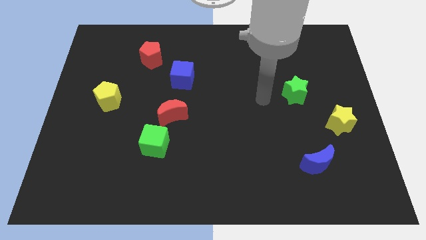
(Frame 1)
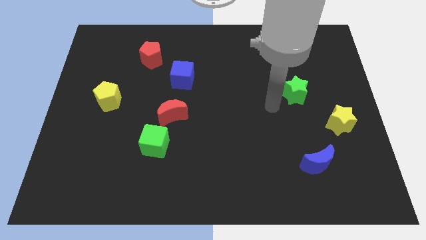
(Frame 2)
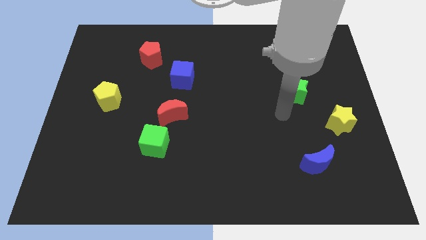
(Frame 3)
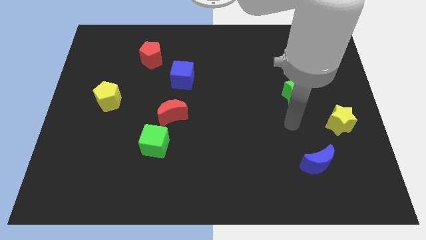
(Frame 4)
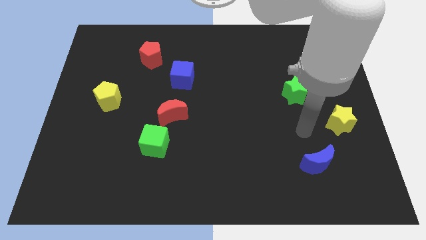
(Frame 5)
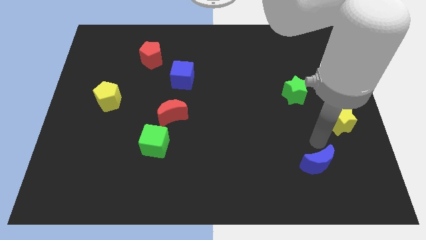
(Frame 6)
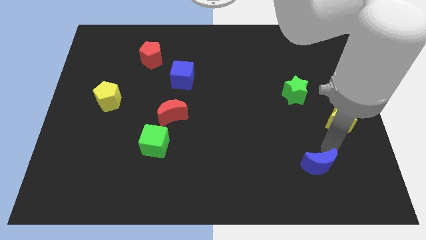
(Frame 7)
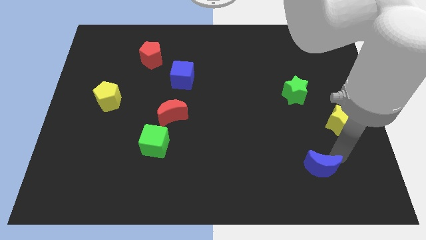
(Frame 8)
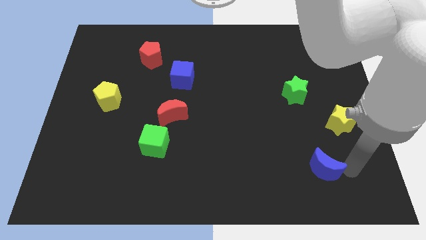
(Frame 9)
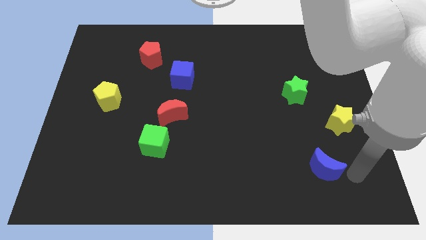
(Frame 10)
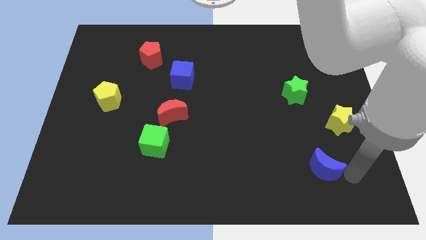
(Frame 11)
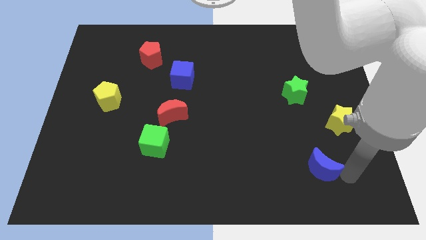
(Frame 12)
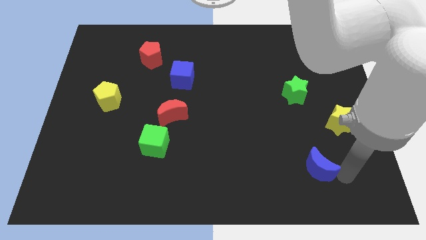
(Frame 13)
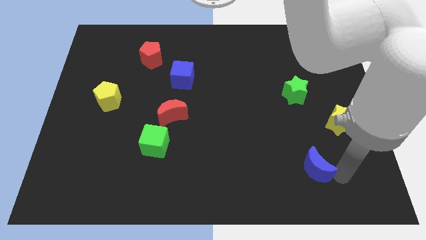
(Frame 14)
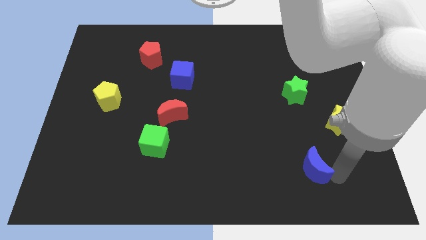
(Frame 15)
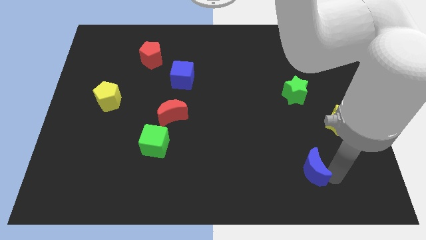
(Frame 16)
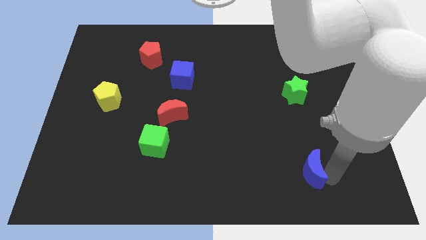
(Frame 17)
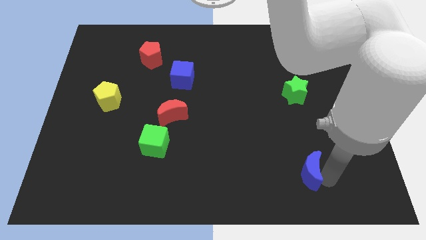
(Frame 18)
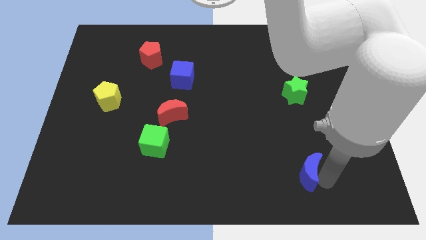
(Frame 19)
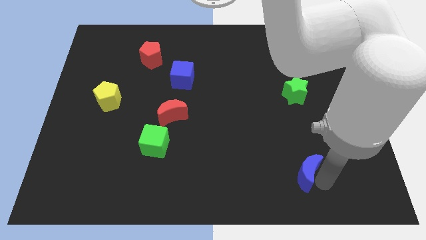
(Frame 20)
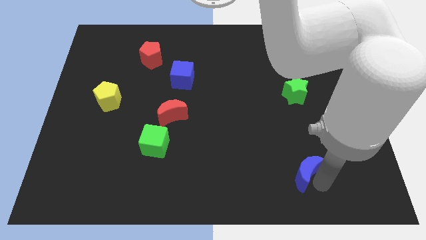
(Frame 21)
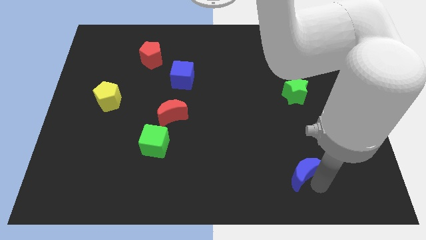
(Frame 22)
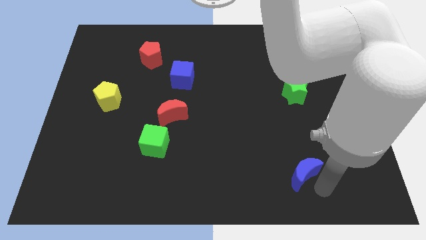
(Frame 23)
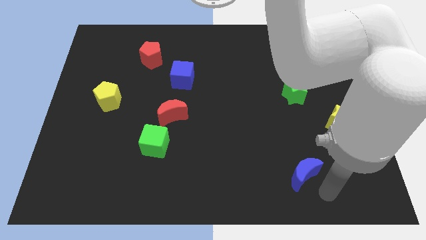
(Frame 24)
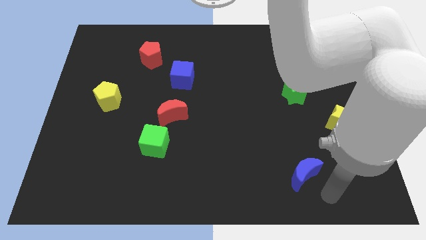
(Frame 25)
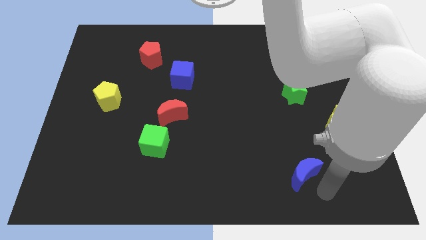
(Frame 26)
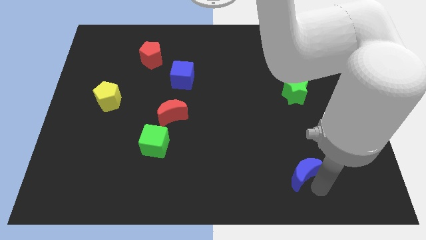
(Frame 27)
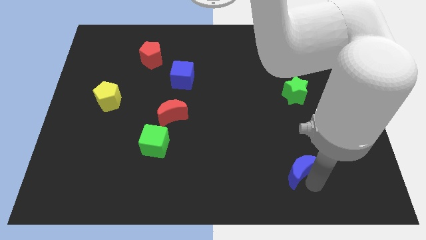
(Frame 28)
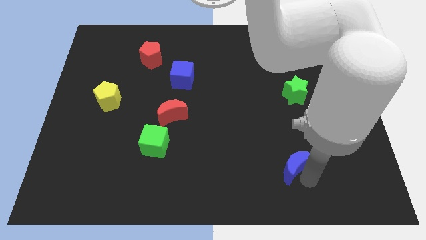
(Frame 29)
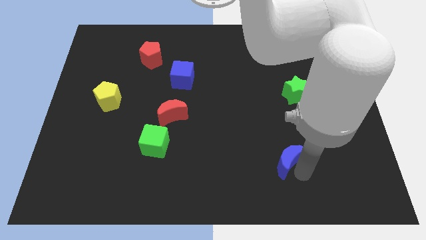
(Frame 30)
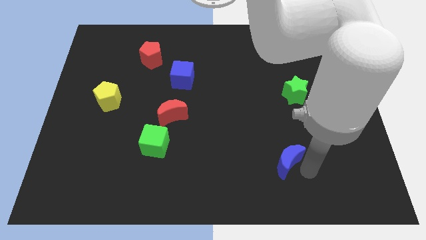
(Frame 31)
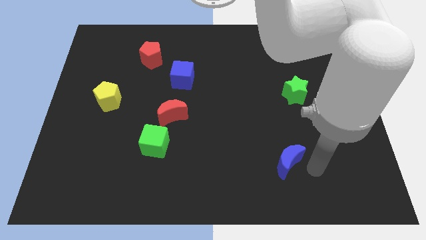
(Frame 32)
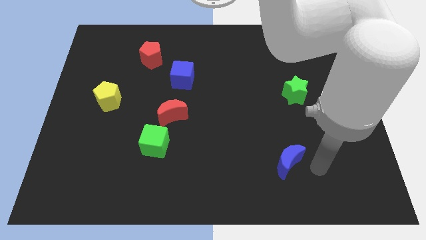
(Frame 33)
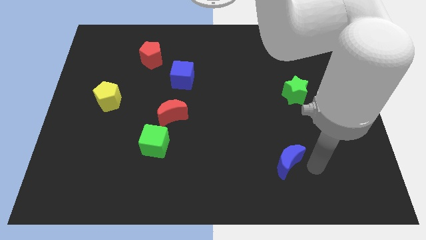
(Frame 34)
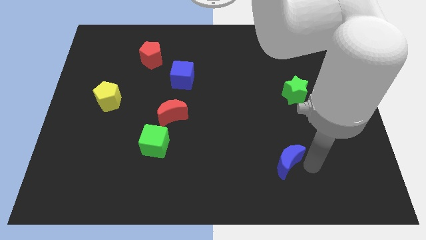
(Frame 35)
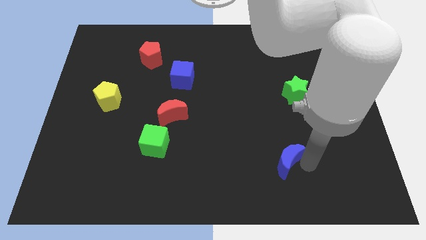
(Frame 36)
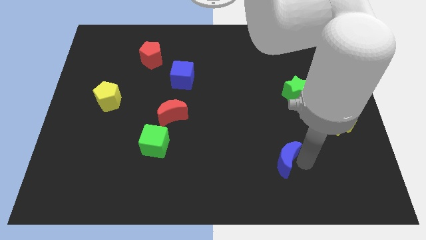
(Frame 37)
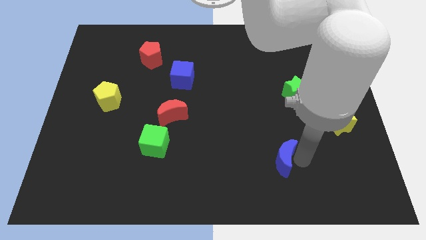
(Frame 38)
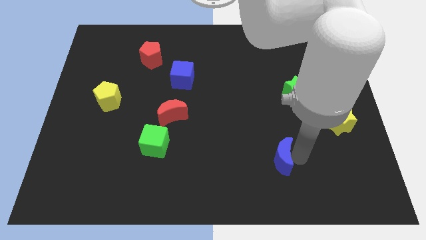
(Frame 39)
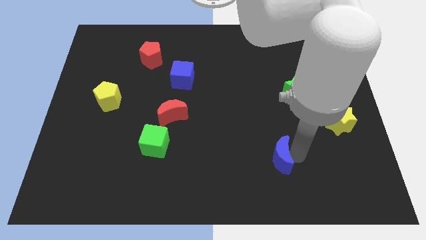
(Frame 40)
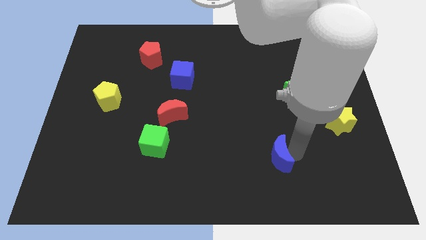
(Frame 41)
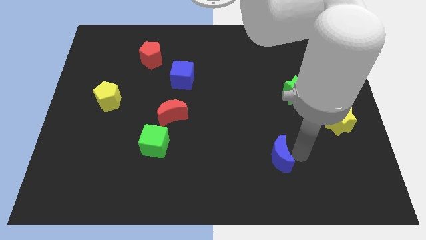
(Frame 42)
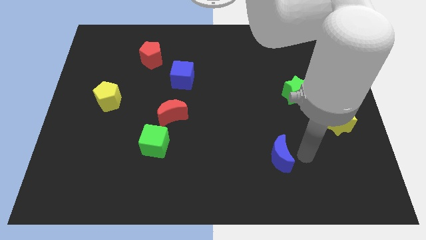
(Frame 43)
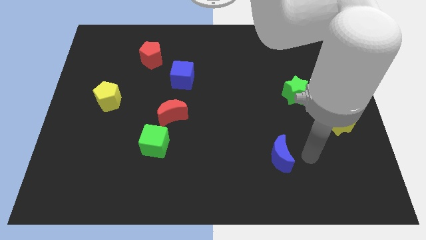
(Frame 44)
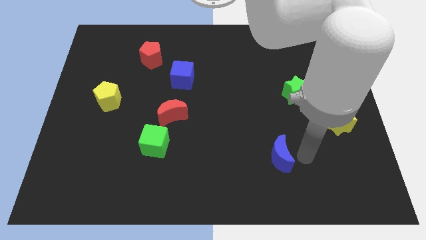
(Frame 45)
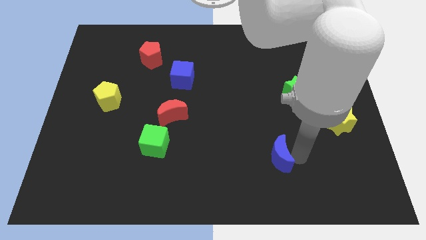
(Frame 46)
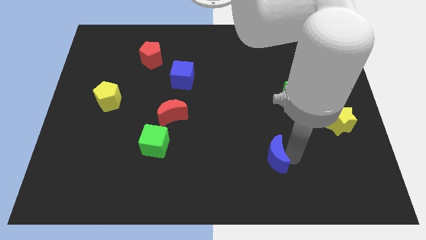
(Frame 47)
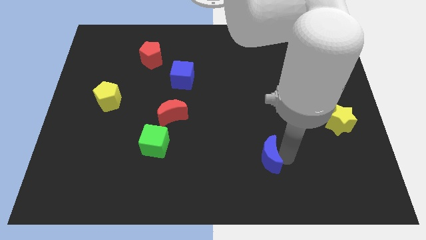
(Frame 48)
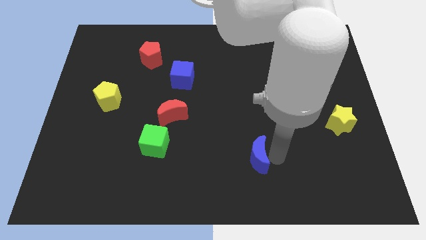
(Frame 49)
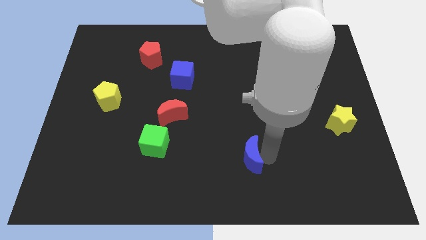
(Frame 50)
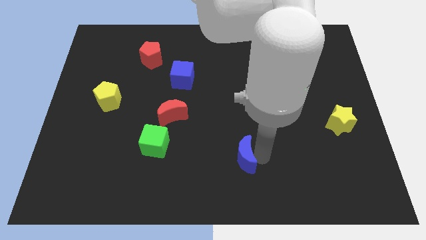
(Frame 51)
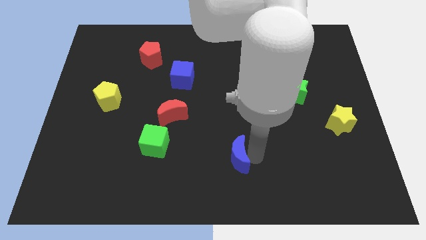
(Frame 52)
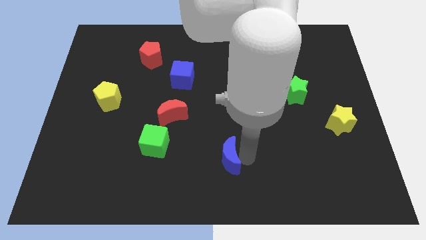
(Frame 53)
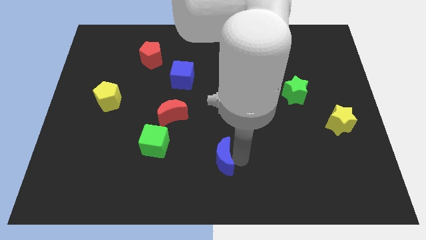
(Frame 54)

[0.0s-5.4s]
slide the blue moon left

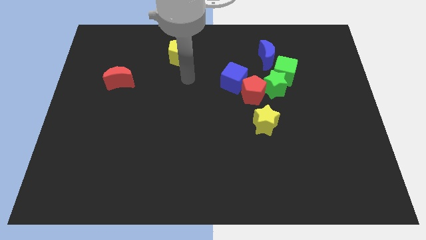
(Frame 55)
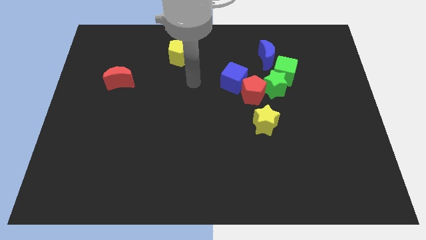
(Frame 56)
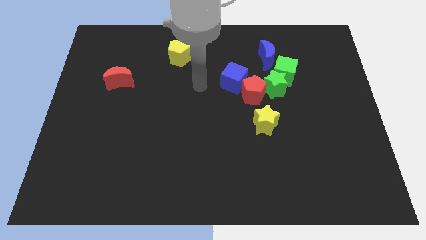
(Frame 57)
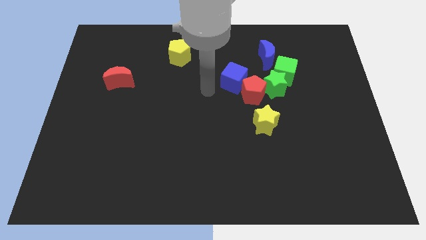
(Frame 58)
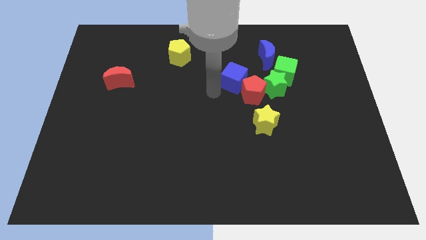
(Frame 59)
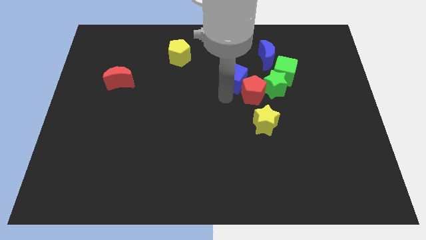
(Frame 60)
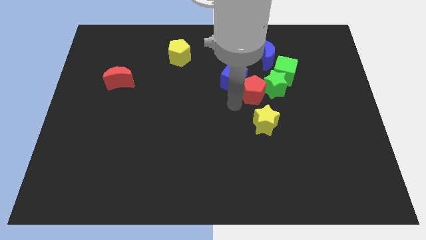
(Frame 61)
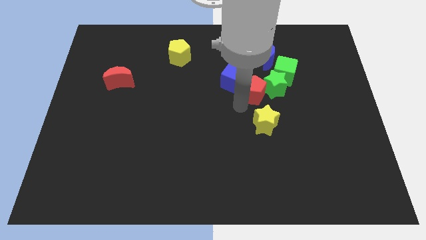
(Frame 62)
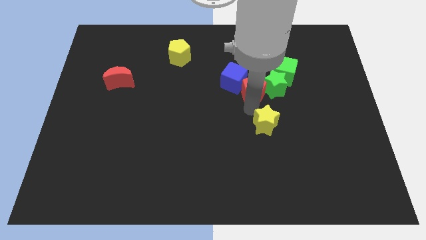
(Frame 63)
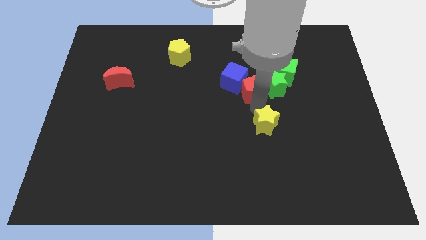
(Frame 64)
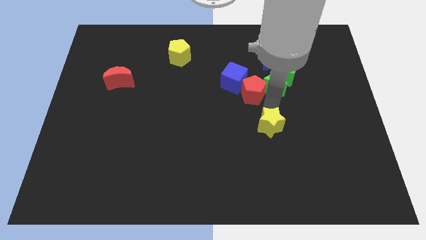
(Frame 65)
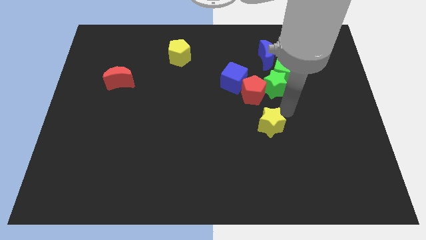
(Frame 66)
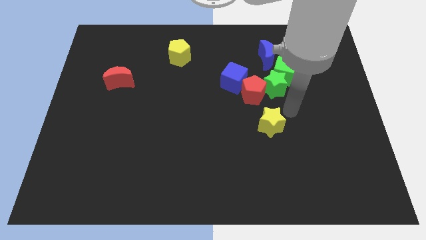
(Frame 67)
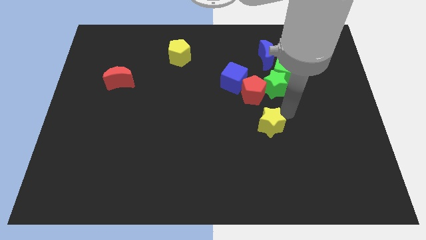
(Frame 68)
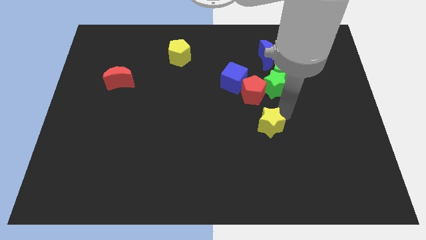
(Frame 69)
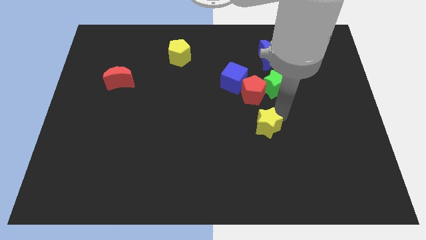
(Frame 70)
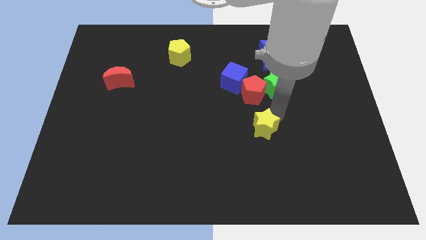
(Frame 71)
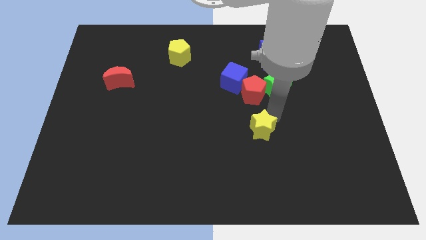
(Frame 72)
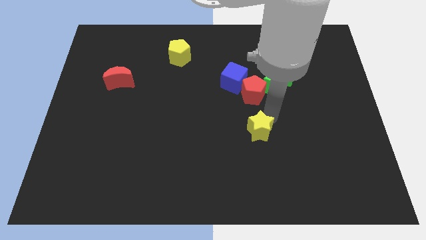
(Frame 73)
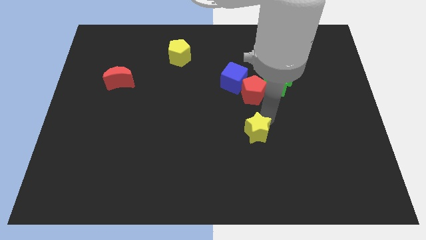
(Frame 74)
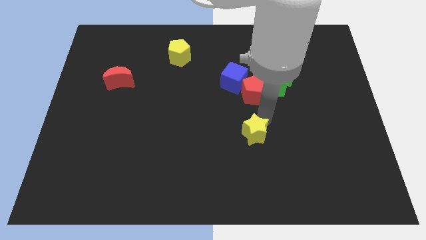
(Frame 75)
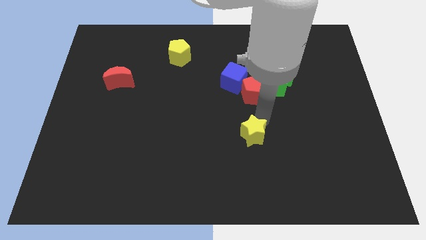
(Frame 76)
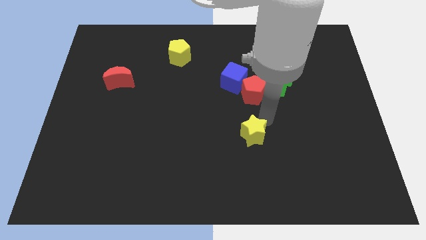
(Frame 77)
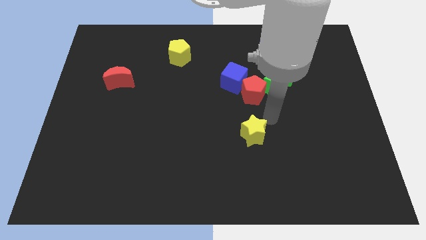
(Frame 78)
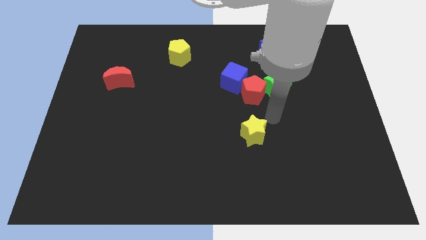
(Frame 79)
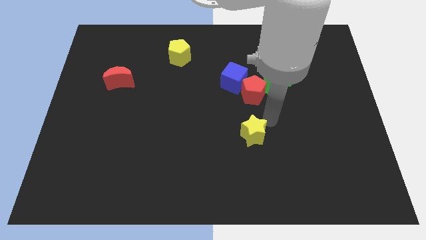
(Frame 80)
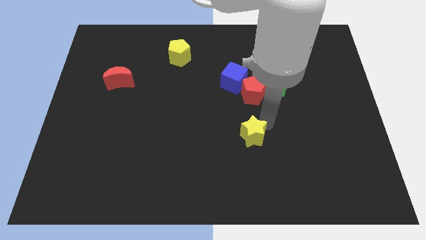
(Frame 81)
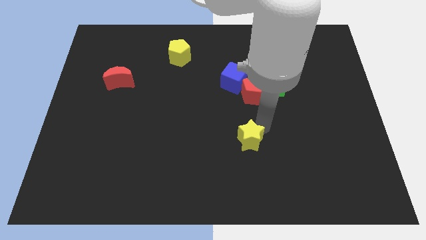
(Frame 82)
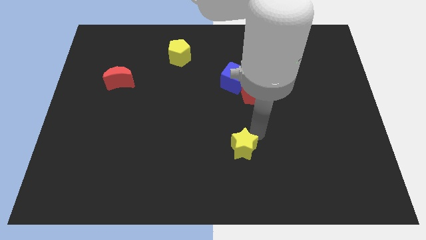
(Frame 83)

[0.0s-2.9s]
slightly push the yellow star downwards and then left
